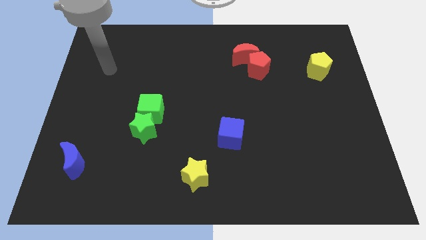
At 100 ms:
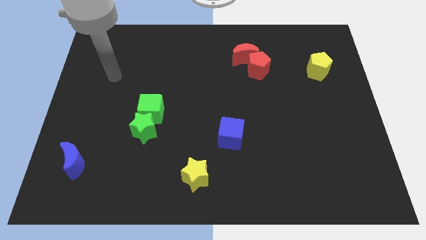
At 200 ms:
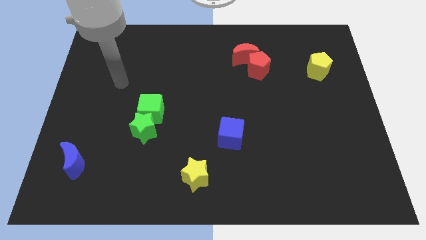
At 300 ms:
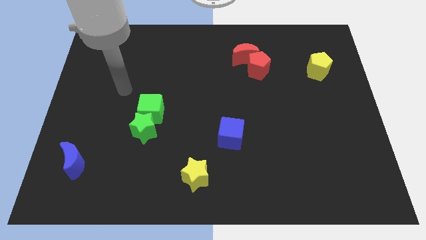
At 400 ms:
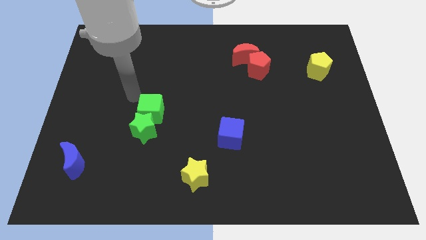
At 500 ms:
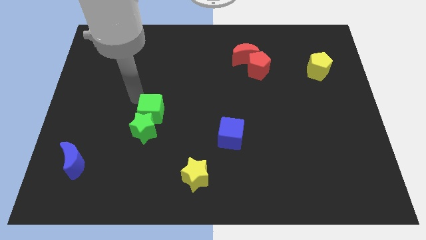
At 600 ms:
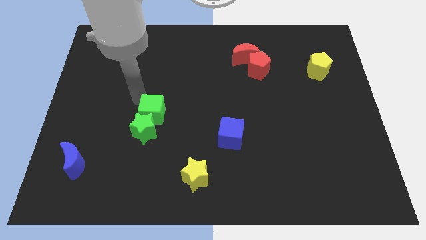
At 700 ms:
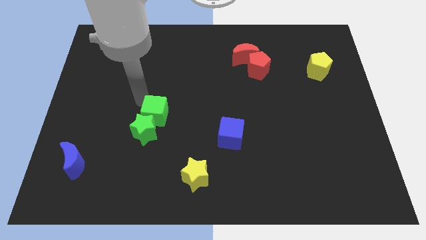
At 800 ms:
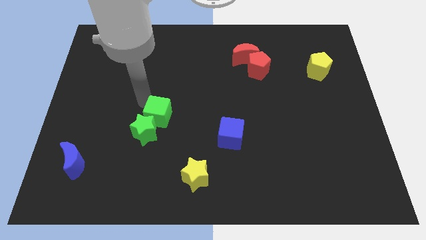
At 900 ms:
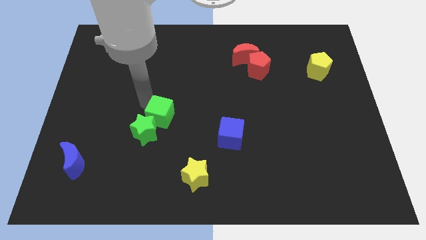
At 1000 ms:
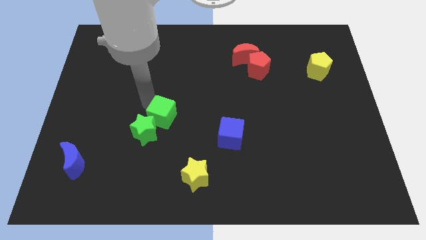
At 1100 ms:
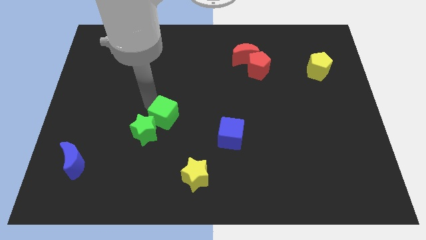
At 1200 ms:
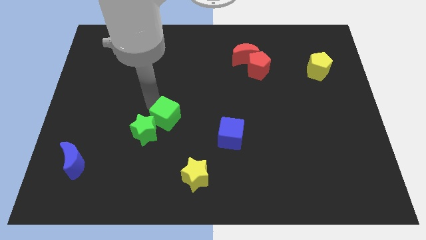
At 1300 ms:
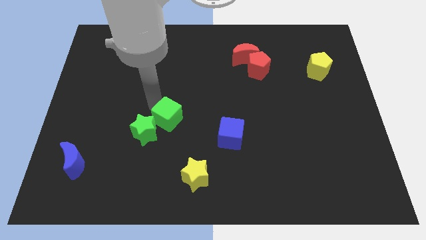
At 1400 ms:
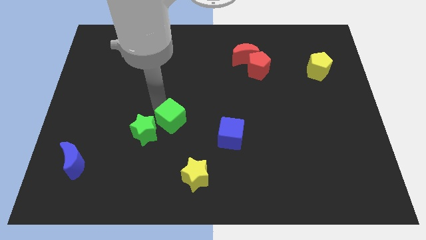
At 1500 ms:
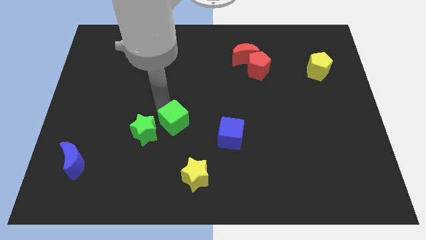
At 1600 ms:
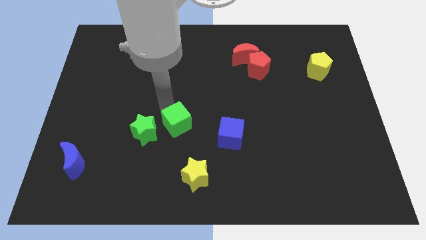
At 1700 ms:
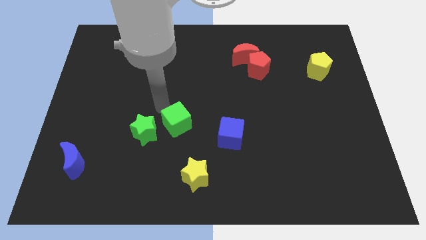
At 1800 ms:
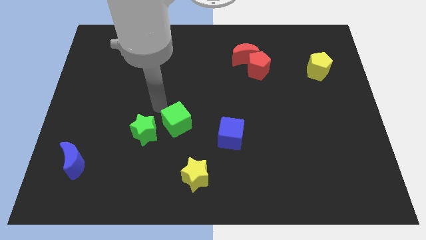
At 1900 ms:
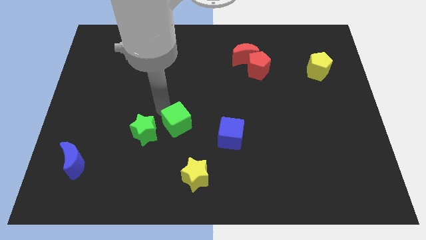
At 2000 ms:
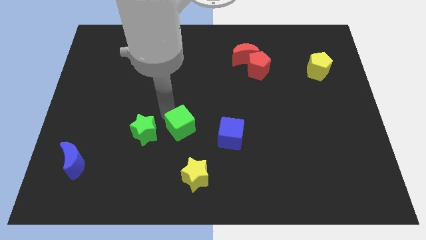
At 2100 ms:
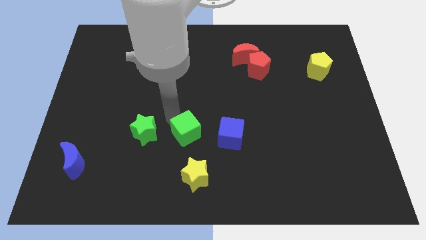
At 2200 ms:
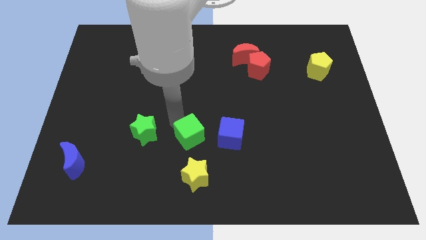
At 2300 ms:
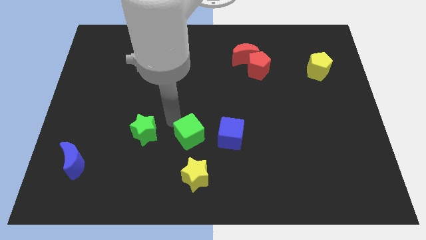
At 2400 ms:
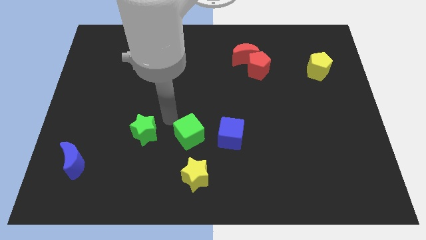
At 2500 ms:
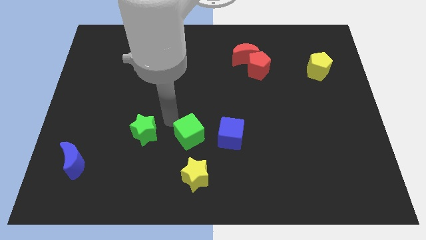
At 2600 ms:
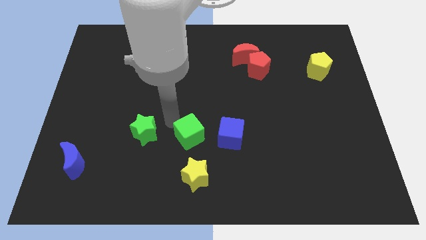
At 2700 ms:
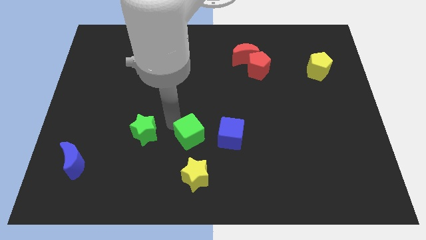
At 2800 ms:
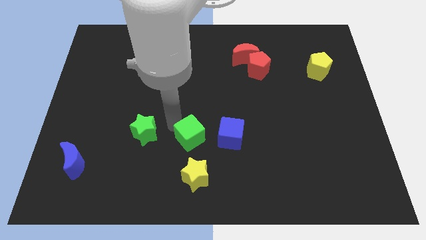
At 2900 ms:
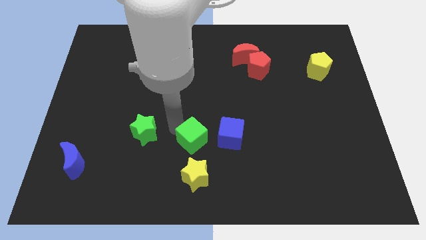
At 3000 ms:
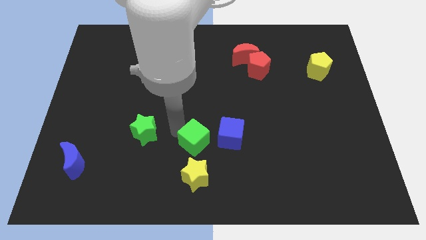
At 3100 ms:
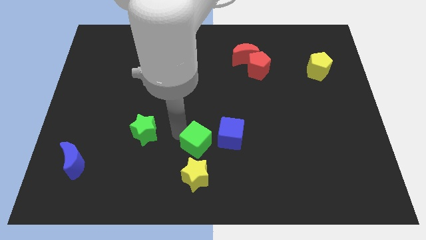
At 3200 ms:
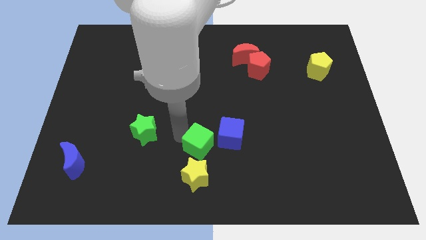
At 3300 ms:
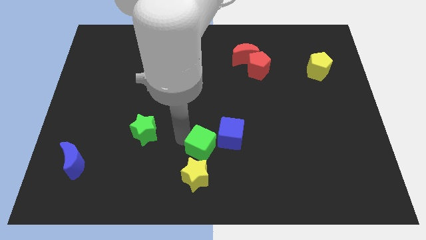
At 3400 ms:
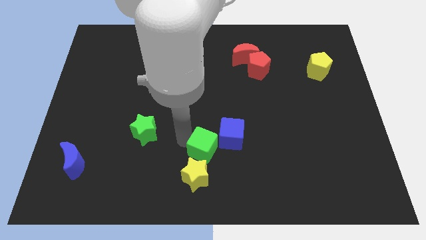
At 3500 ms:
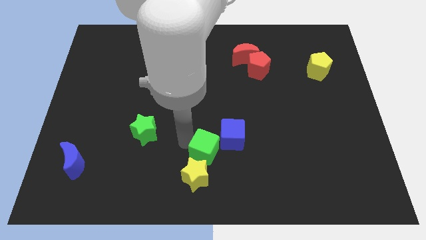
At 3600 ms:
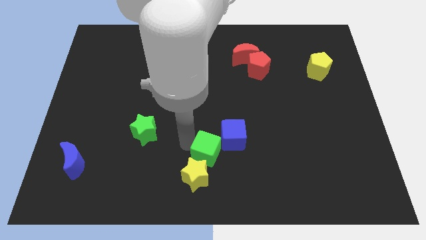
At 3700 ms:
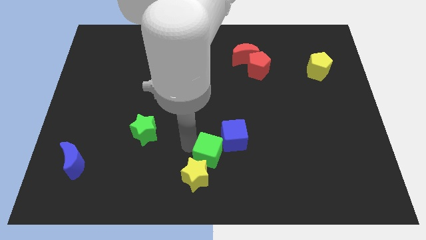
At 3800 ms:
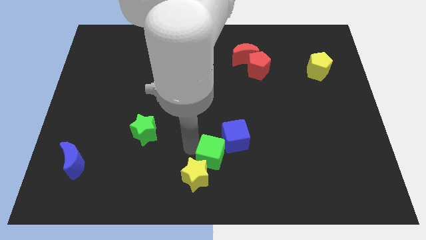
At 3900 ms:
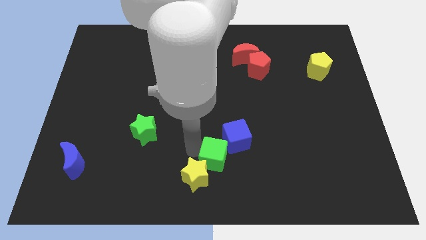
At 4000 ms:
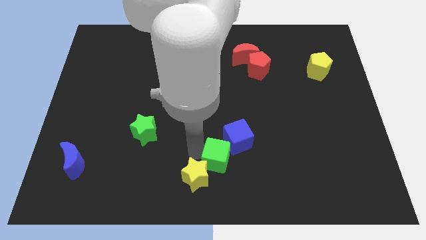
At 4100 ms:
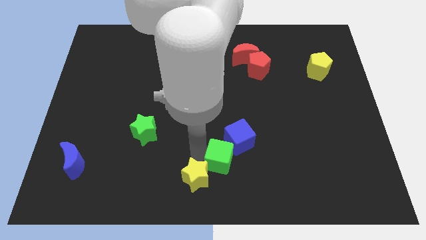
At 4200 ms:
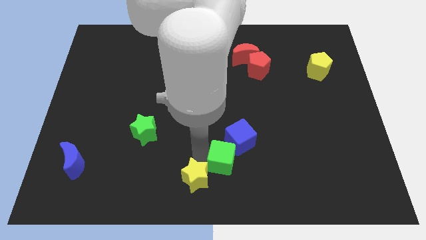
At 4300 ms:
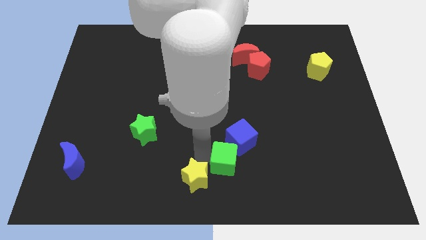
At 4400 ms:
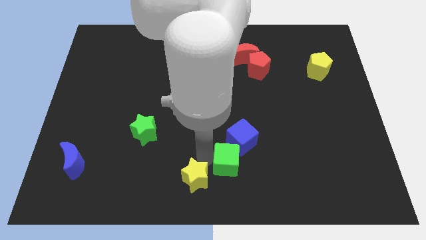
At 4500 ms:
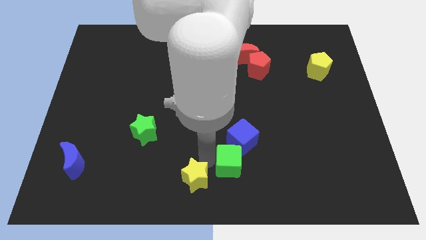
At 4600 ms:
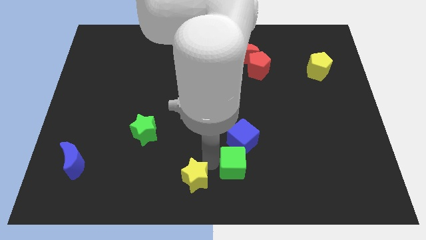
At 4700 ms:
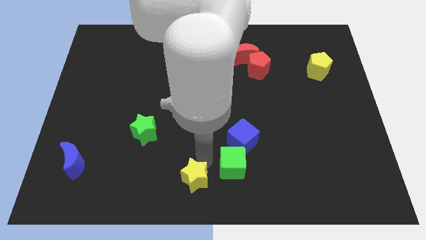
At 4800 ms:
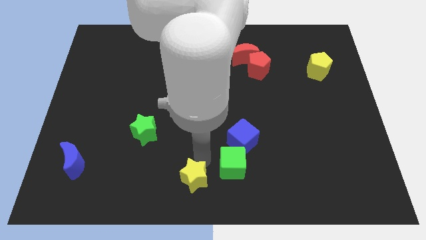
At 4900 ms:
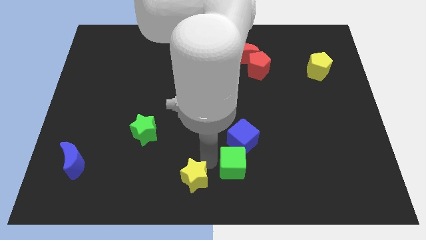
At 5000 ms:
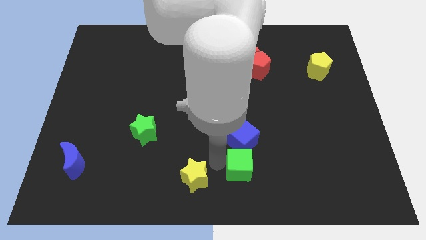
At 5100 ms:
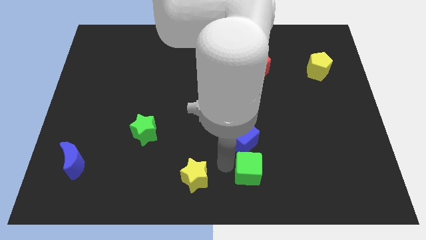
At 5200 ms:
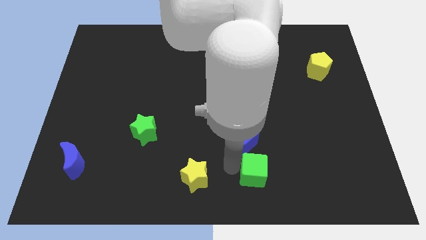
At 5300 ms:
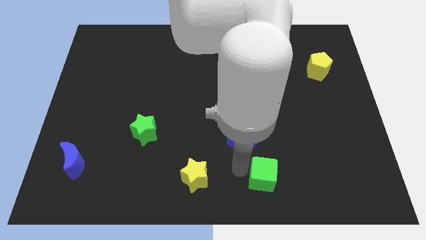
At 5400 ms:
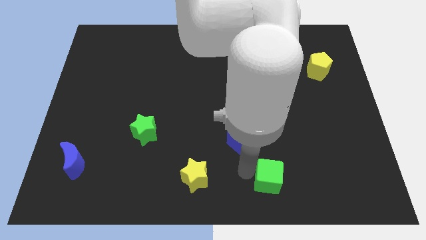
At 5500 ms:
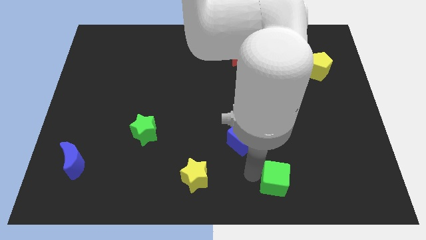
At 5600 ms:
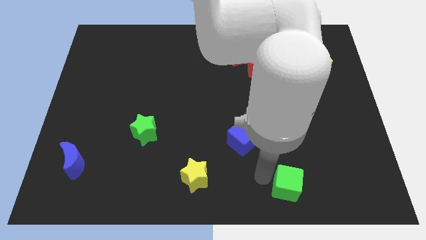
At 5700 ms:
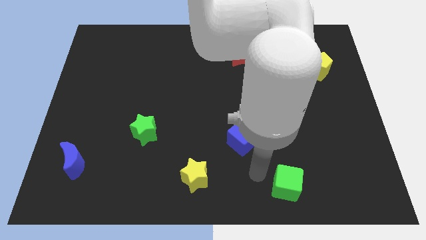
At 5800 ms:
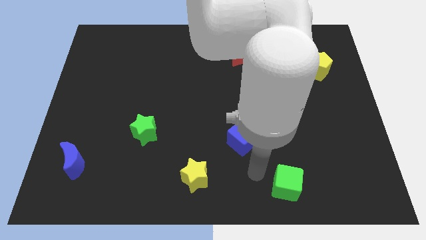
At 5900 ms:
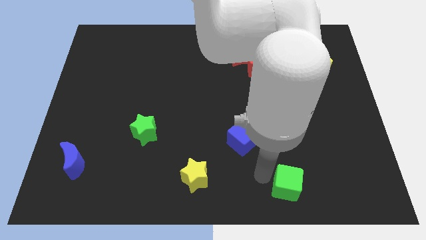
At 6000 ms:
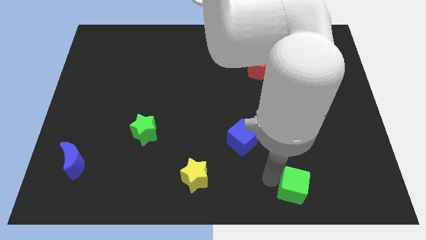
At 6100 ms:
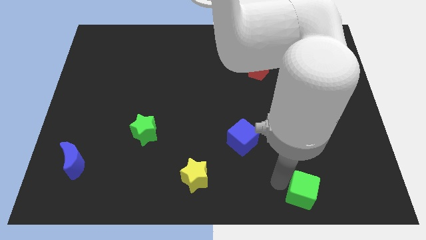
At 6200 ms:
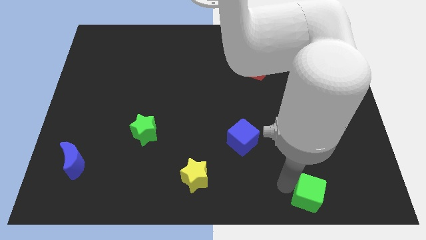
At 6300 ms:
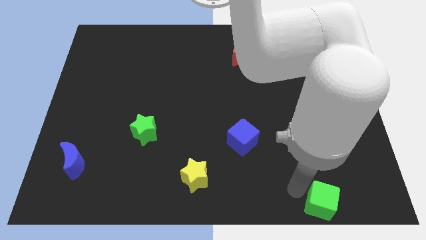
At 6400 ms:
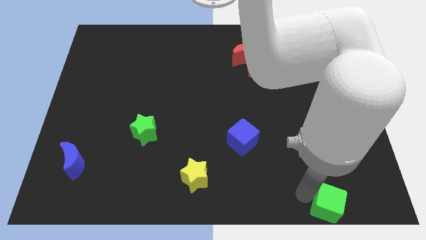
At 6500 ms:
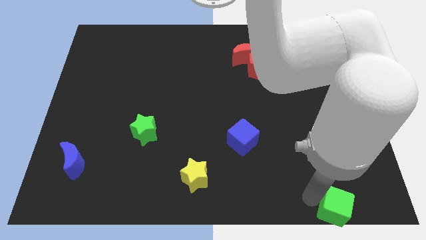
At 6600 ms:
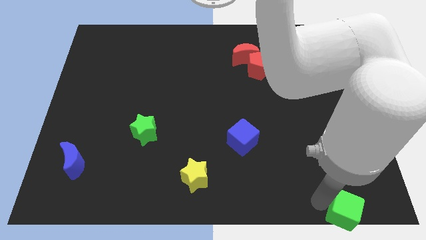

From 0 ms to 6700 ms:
move the green cube to the bottom right

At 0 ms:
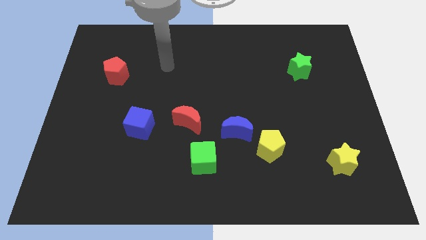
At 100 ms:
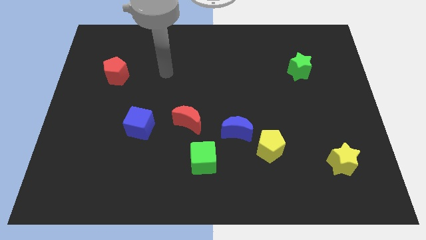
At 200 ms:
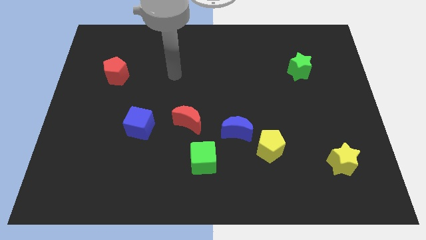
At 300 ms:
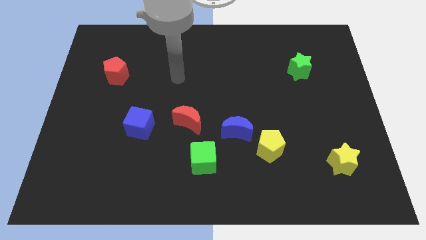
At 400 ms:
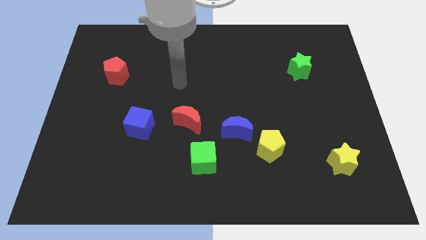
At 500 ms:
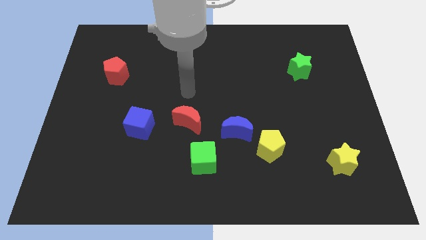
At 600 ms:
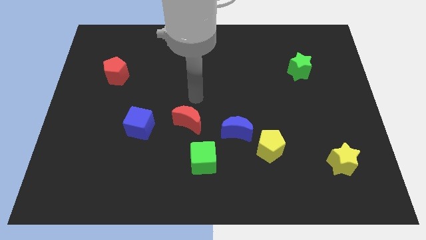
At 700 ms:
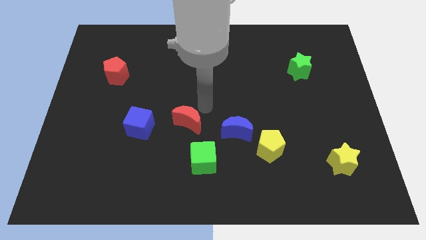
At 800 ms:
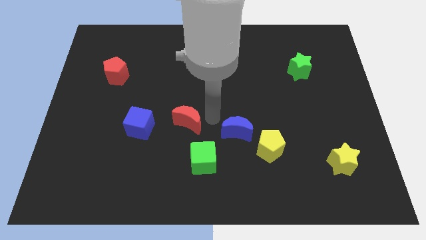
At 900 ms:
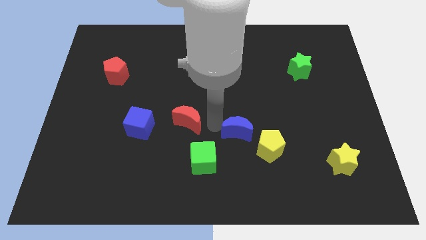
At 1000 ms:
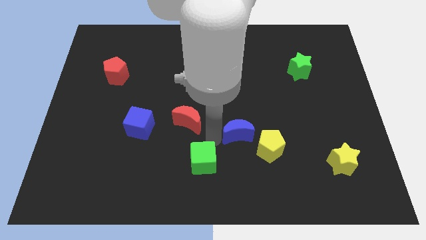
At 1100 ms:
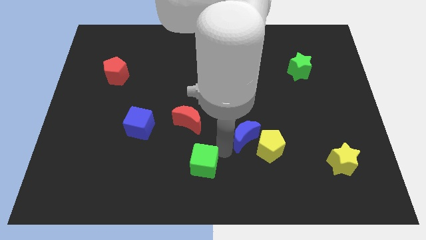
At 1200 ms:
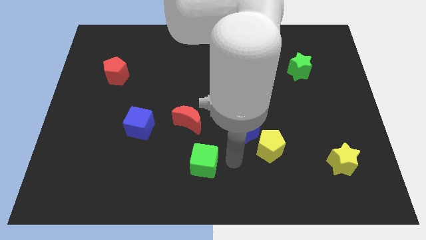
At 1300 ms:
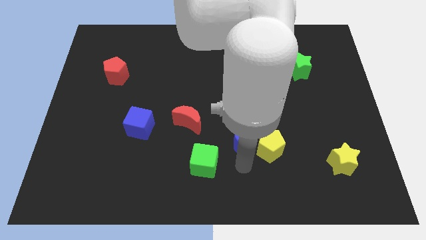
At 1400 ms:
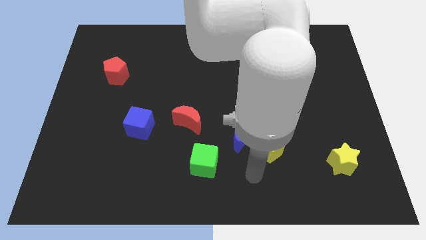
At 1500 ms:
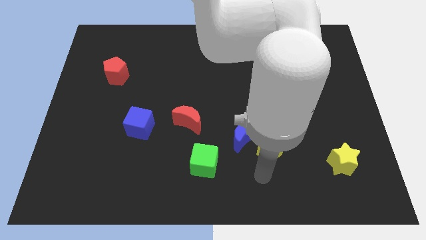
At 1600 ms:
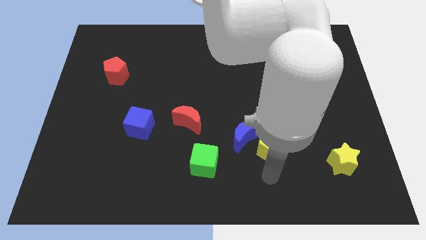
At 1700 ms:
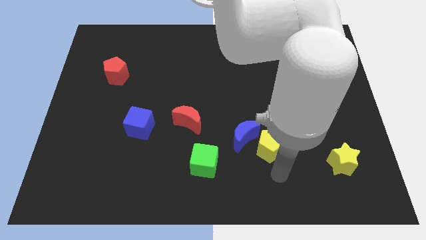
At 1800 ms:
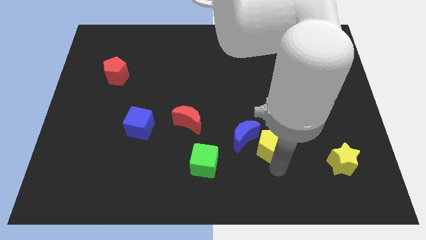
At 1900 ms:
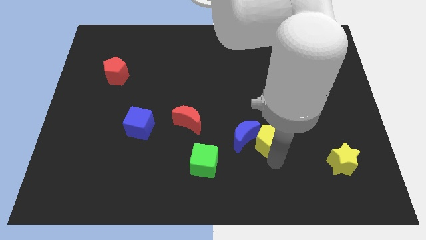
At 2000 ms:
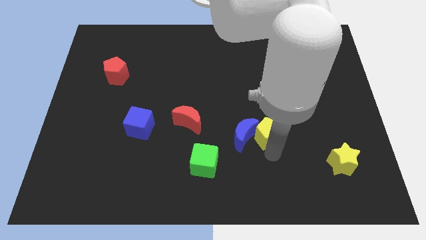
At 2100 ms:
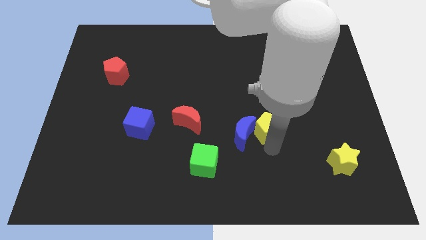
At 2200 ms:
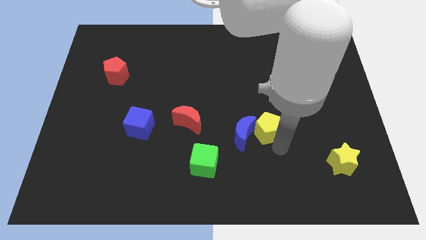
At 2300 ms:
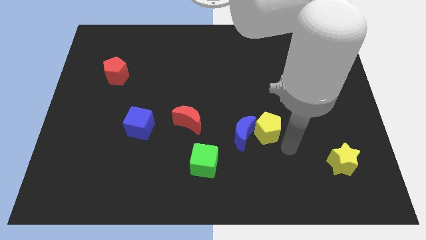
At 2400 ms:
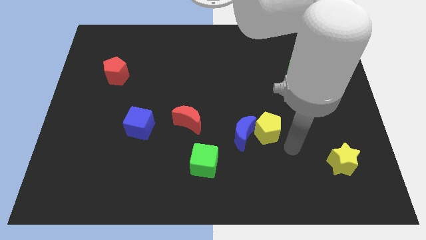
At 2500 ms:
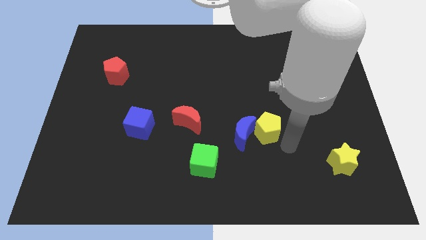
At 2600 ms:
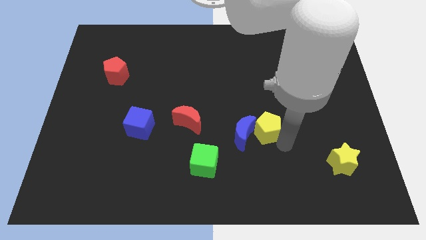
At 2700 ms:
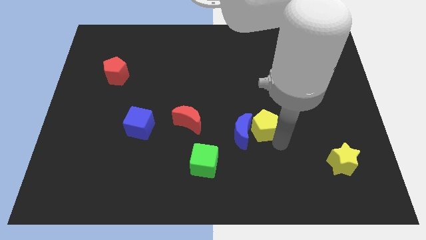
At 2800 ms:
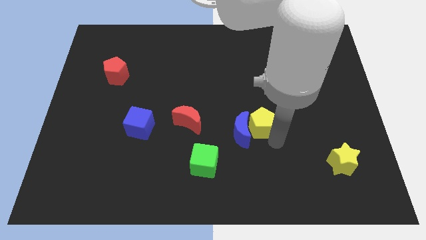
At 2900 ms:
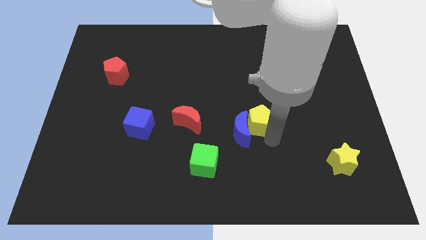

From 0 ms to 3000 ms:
move the yellow pentagon to the middle of the board
